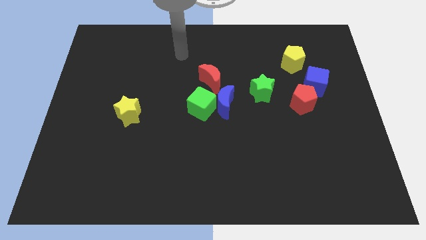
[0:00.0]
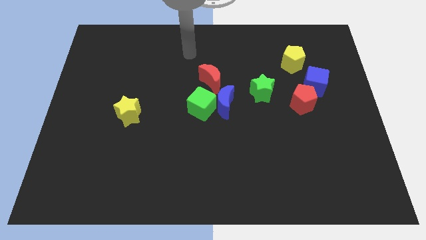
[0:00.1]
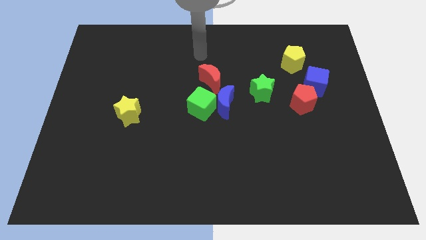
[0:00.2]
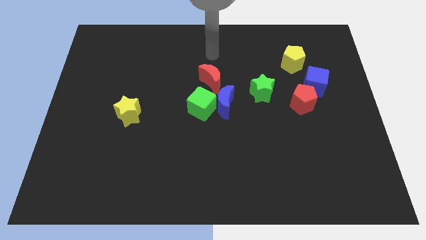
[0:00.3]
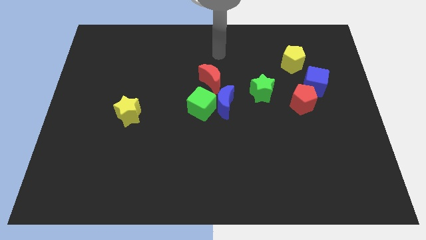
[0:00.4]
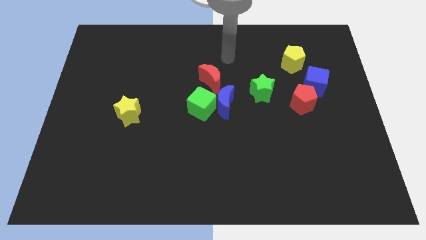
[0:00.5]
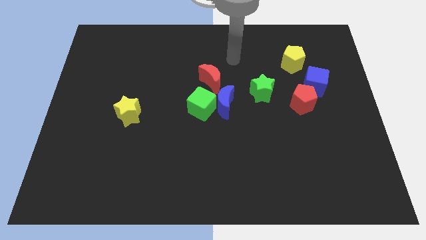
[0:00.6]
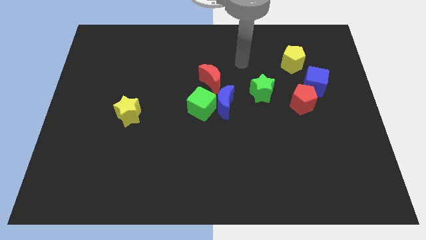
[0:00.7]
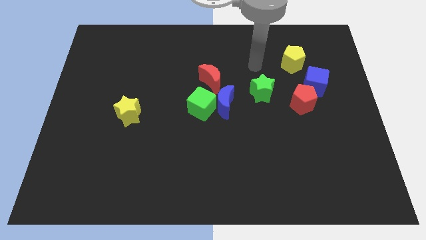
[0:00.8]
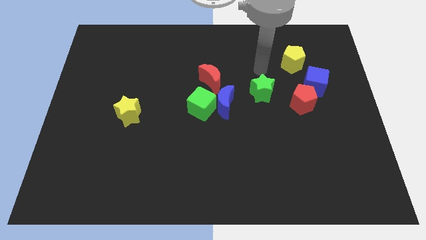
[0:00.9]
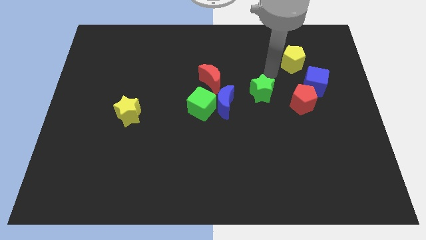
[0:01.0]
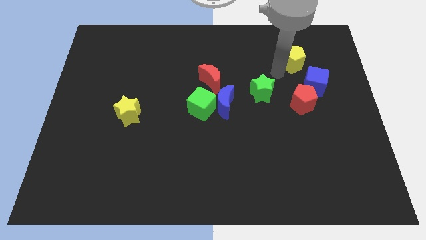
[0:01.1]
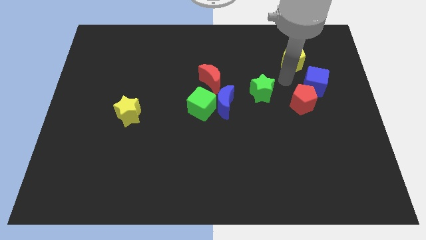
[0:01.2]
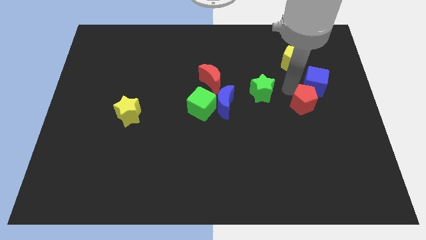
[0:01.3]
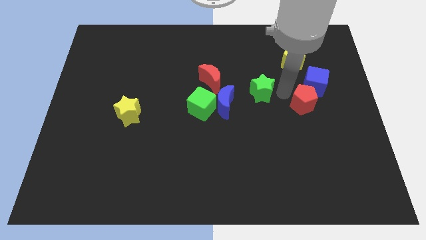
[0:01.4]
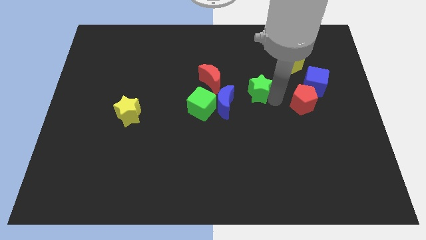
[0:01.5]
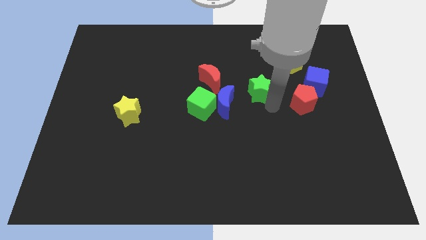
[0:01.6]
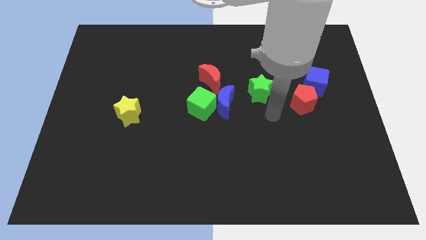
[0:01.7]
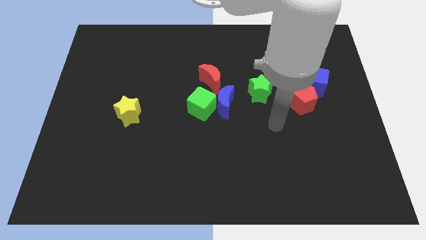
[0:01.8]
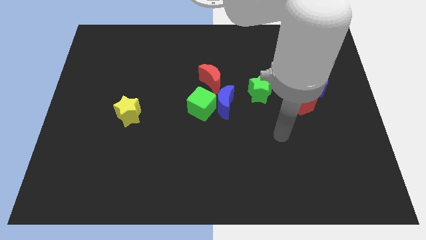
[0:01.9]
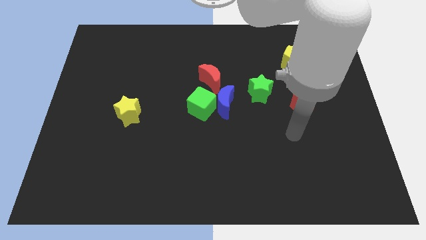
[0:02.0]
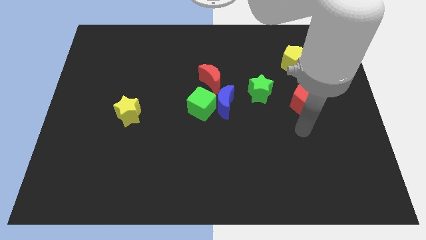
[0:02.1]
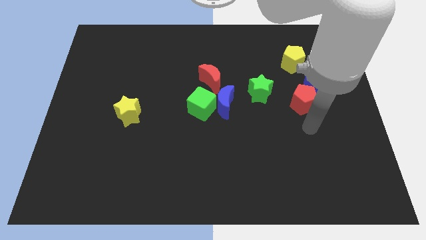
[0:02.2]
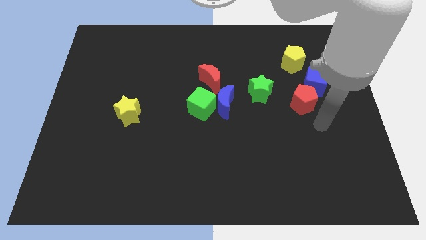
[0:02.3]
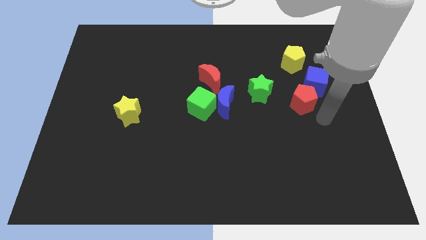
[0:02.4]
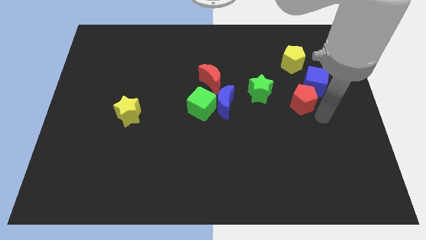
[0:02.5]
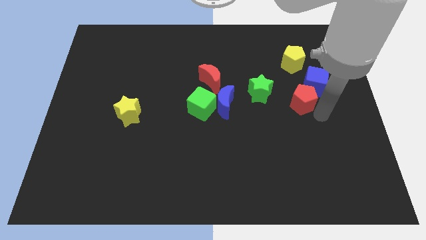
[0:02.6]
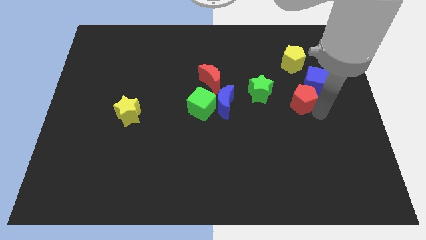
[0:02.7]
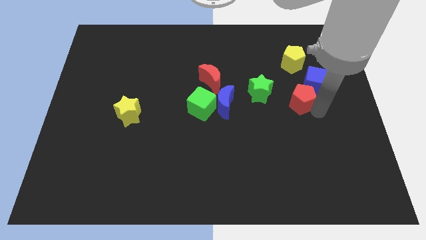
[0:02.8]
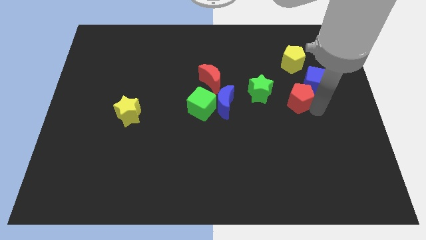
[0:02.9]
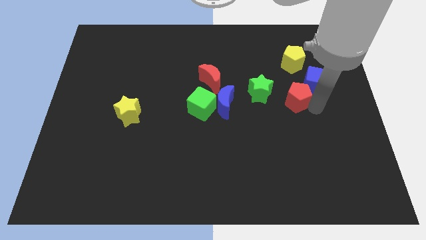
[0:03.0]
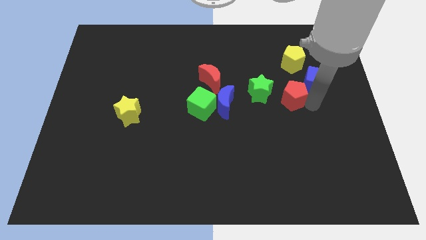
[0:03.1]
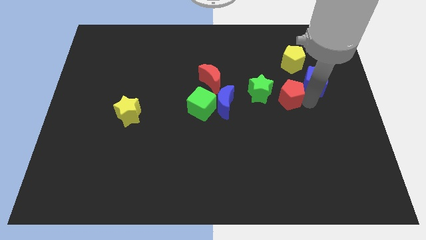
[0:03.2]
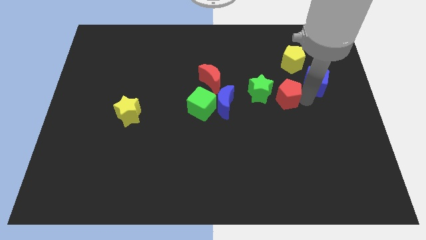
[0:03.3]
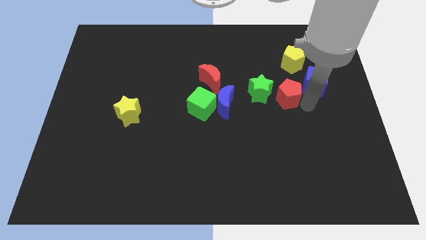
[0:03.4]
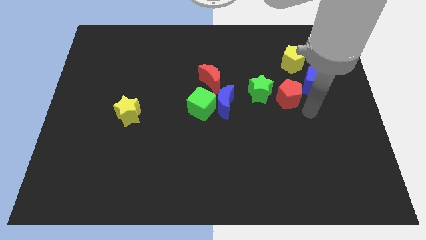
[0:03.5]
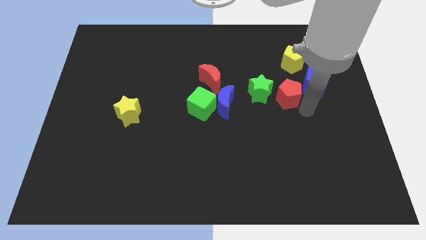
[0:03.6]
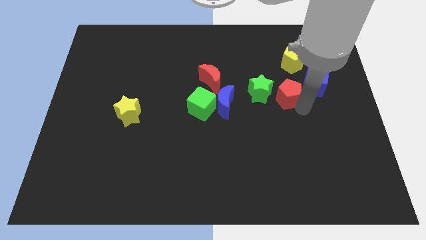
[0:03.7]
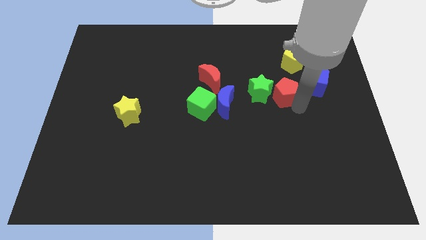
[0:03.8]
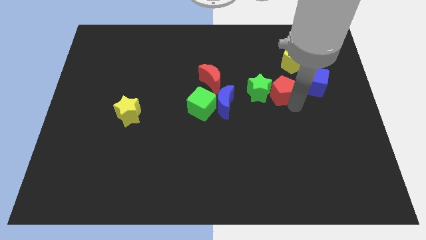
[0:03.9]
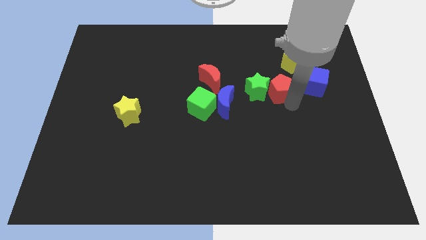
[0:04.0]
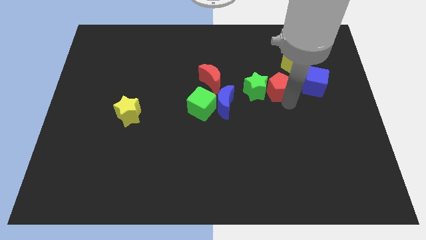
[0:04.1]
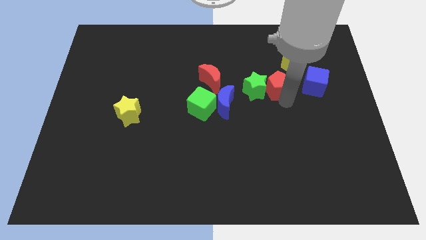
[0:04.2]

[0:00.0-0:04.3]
slide the red pentagon somewhat diagonally upwards and left

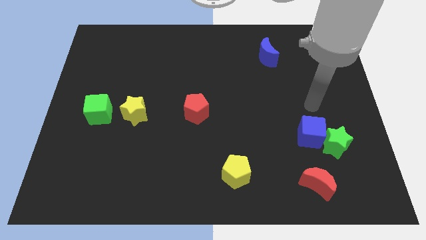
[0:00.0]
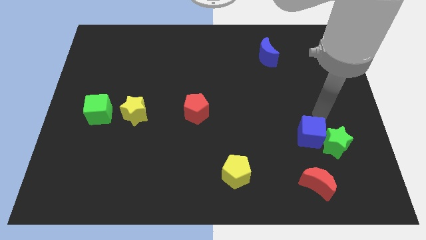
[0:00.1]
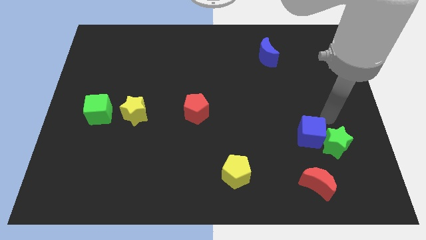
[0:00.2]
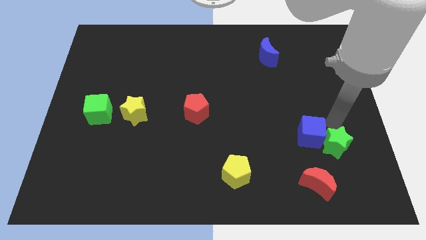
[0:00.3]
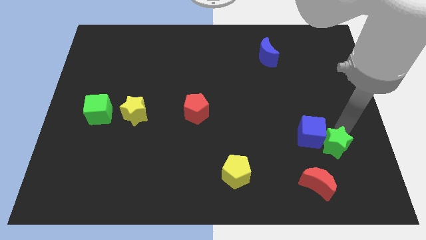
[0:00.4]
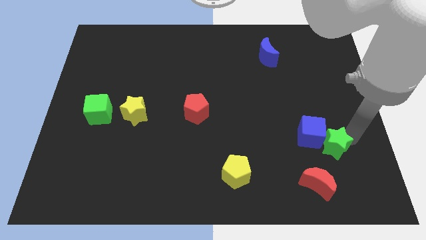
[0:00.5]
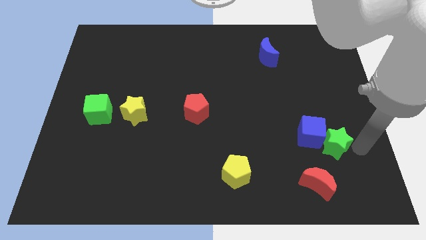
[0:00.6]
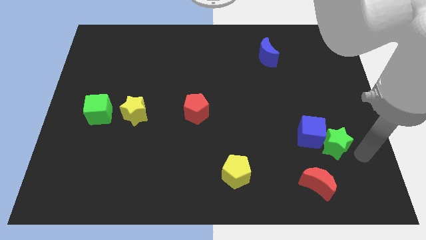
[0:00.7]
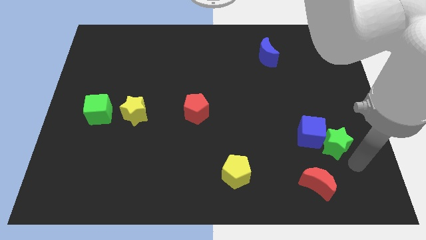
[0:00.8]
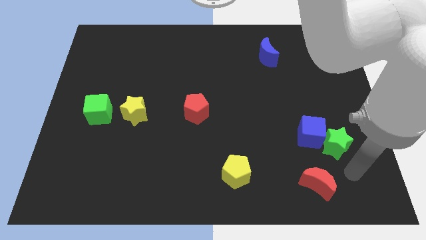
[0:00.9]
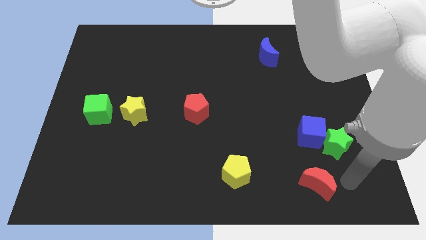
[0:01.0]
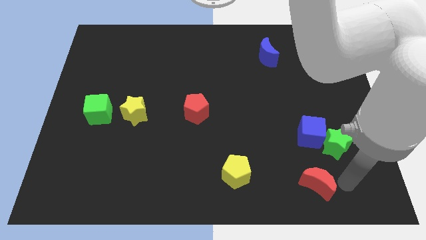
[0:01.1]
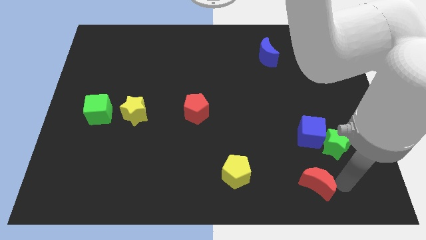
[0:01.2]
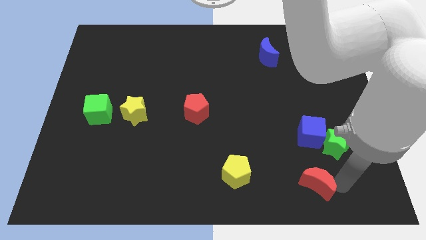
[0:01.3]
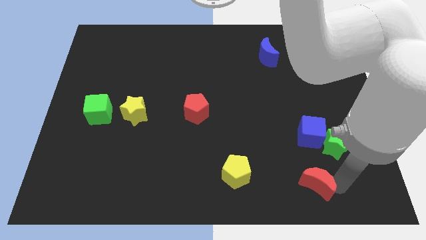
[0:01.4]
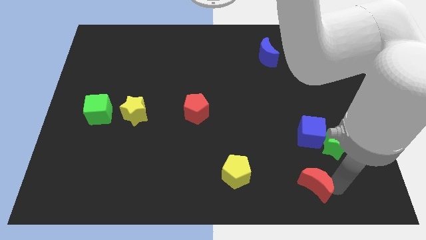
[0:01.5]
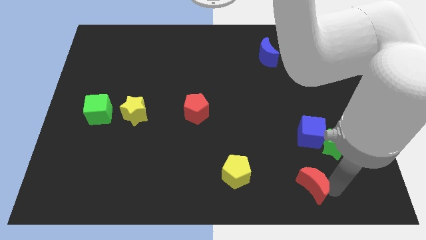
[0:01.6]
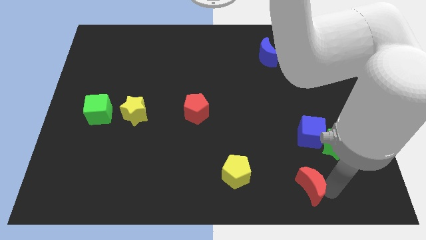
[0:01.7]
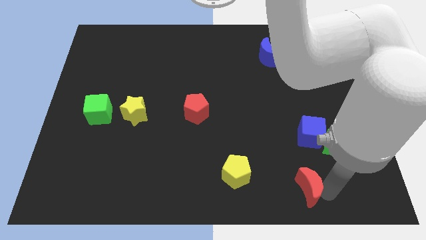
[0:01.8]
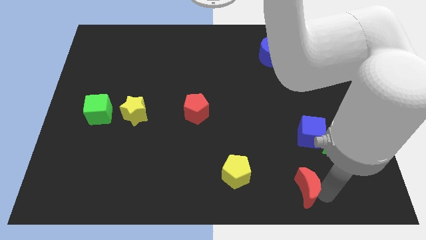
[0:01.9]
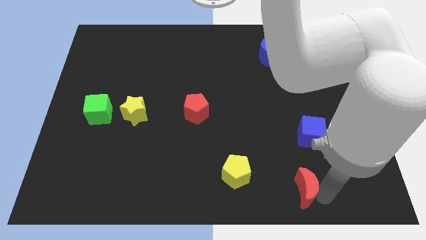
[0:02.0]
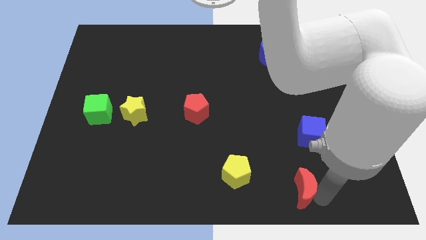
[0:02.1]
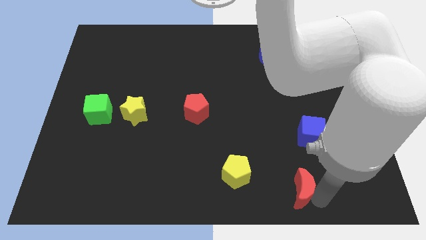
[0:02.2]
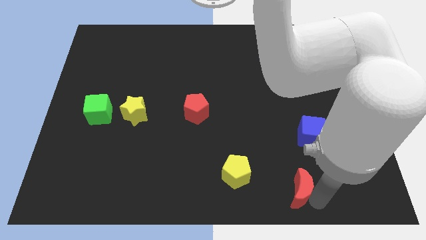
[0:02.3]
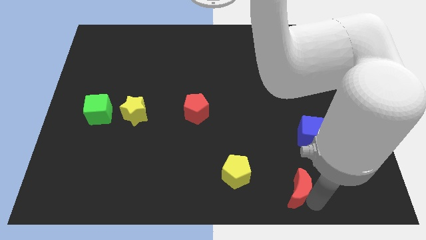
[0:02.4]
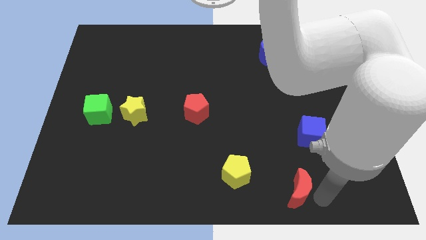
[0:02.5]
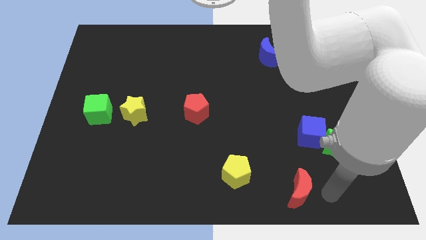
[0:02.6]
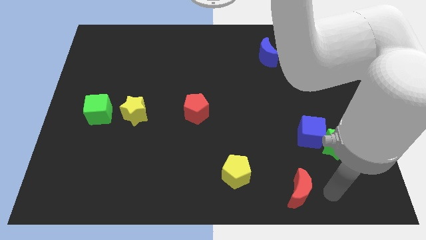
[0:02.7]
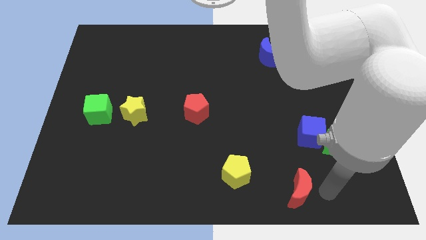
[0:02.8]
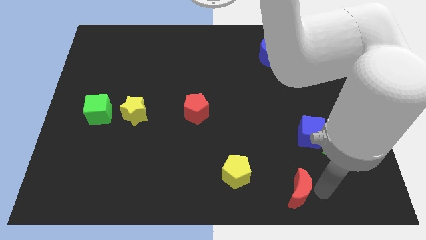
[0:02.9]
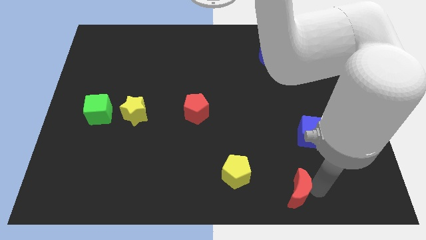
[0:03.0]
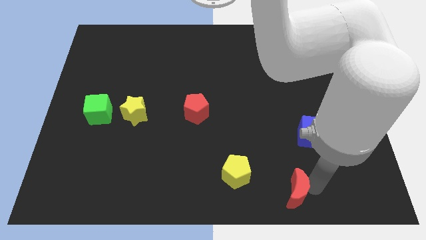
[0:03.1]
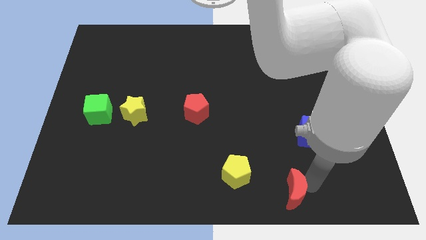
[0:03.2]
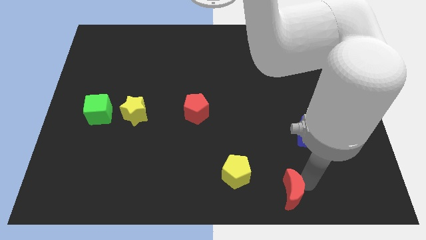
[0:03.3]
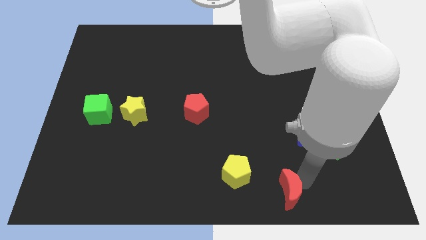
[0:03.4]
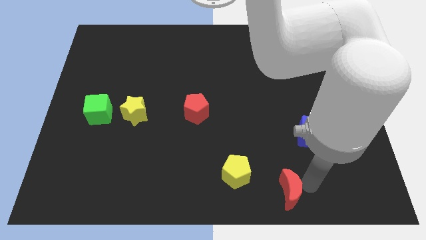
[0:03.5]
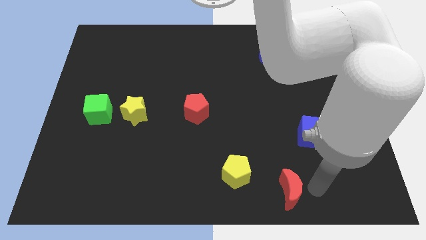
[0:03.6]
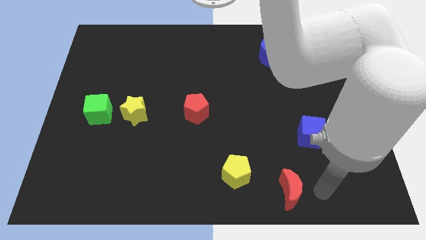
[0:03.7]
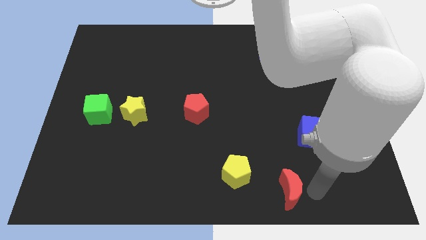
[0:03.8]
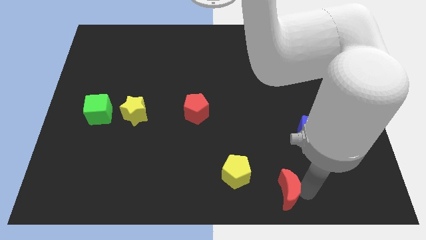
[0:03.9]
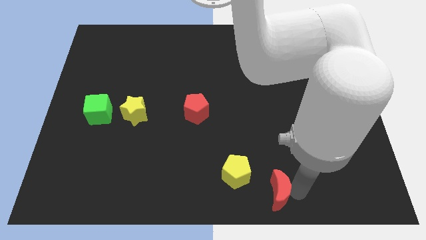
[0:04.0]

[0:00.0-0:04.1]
move the red moon a little bit to the left
